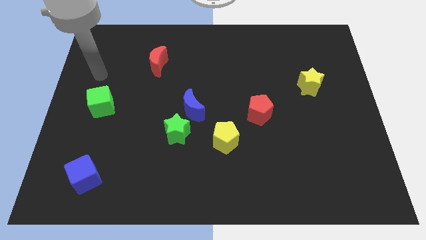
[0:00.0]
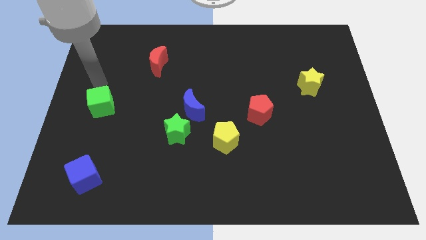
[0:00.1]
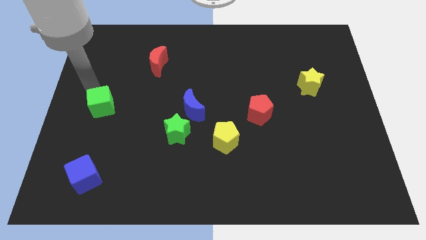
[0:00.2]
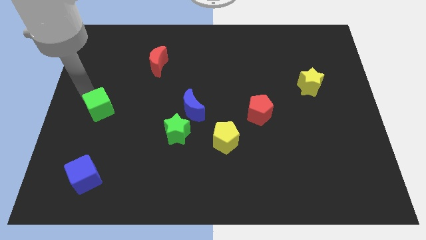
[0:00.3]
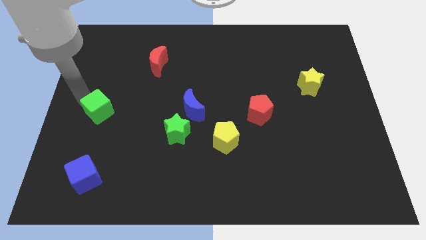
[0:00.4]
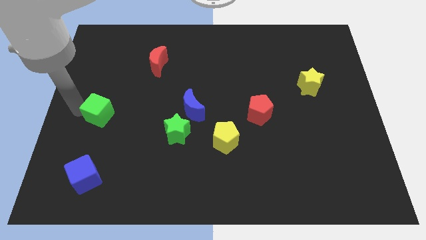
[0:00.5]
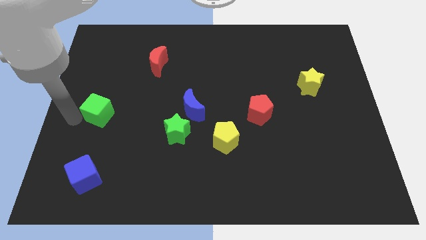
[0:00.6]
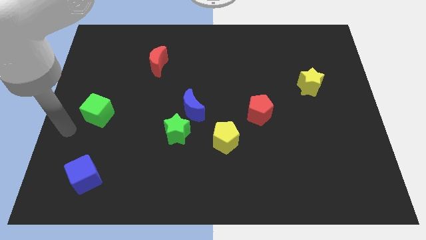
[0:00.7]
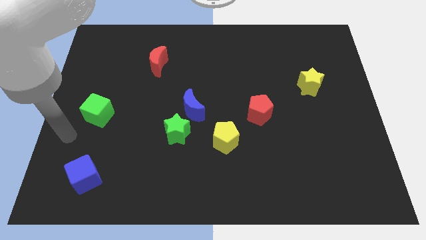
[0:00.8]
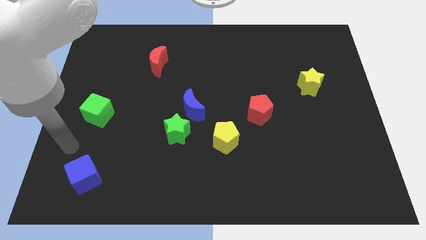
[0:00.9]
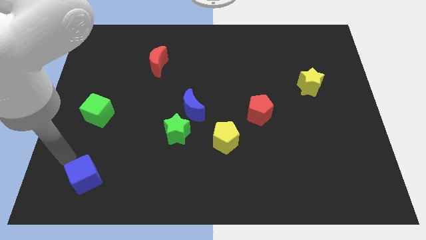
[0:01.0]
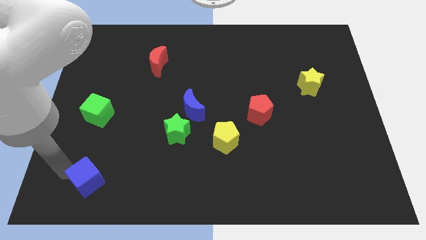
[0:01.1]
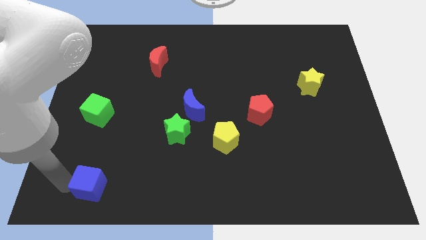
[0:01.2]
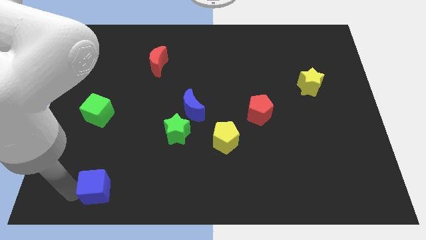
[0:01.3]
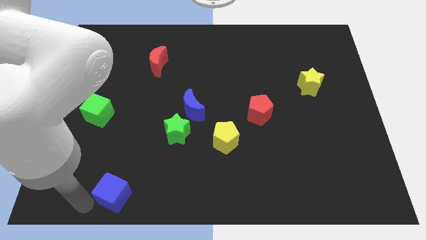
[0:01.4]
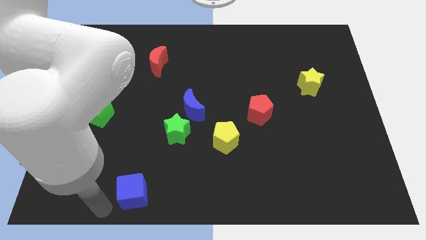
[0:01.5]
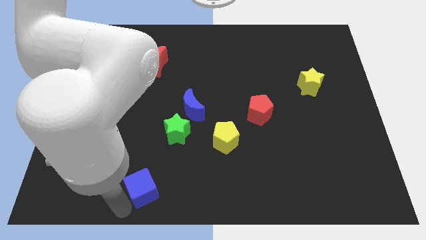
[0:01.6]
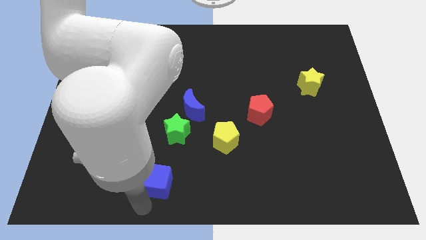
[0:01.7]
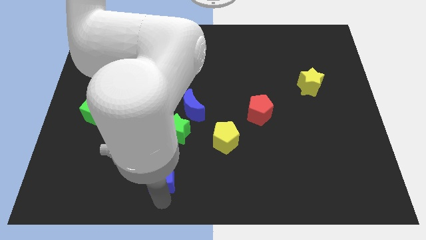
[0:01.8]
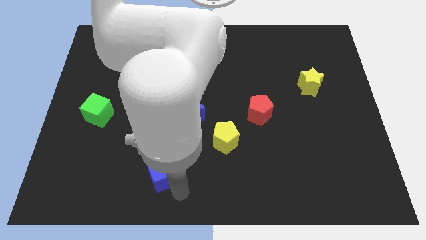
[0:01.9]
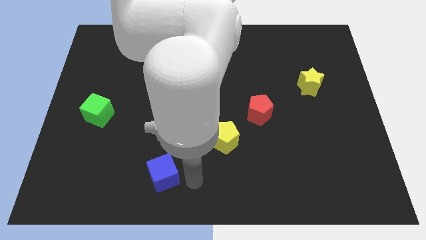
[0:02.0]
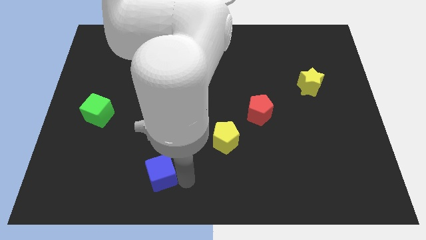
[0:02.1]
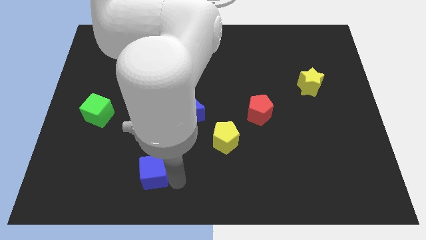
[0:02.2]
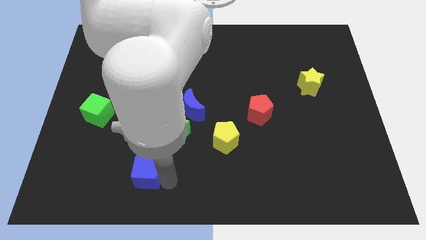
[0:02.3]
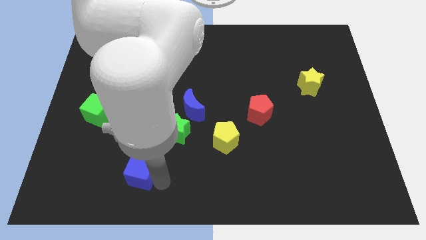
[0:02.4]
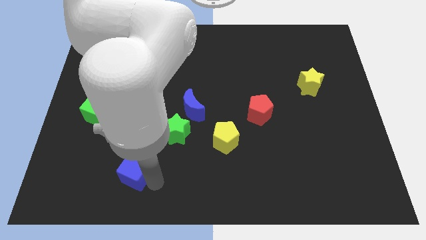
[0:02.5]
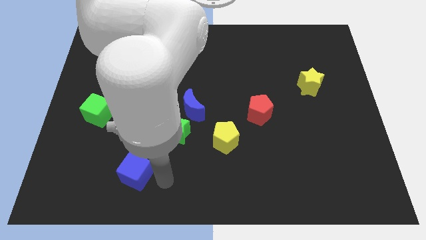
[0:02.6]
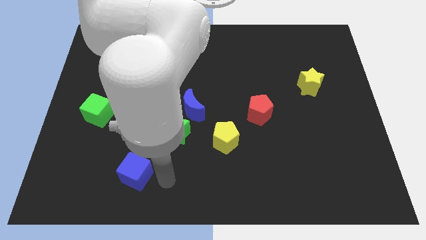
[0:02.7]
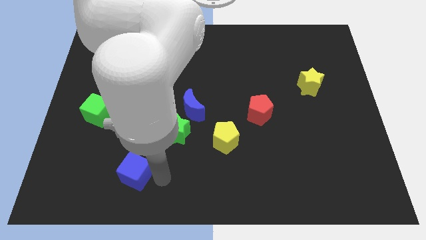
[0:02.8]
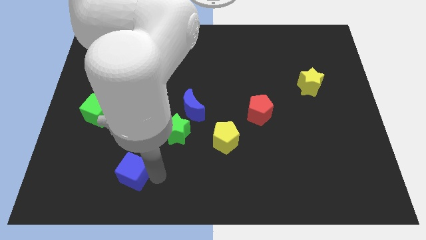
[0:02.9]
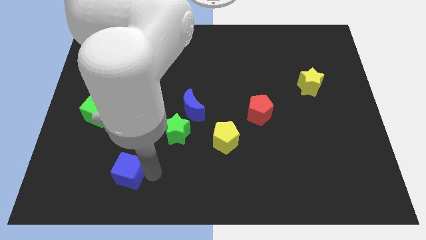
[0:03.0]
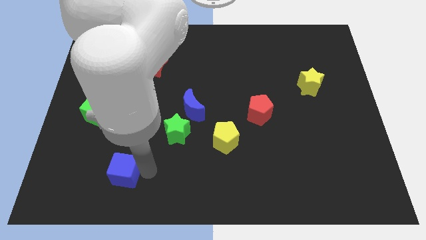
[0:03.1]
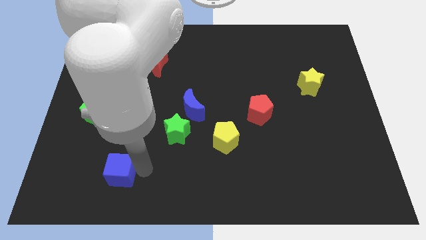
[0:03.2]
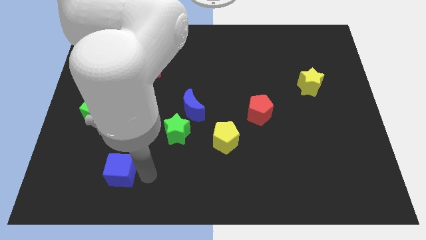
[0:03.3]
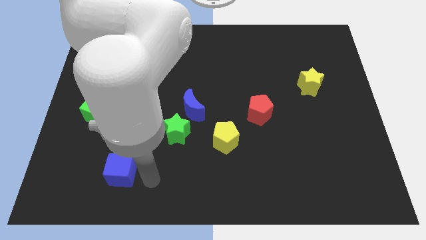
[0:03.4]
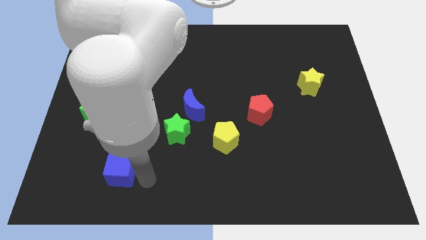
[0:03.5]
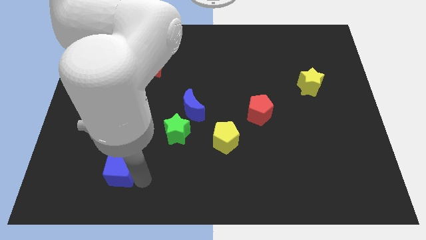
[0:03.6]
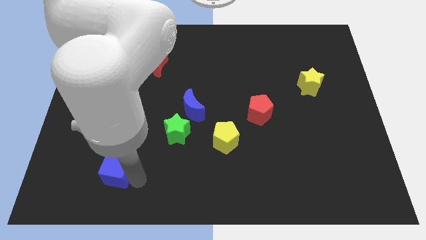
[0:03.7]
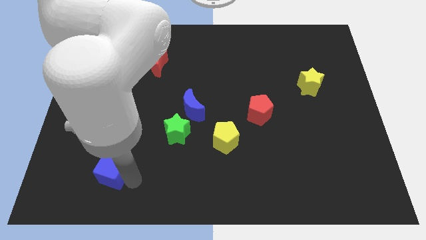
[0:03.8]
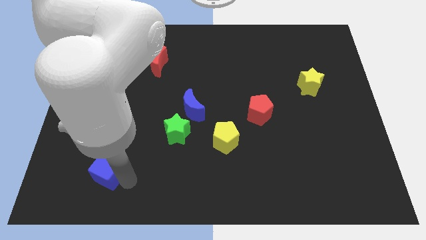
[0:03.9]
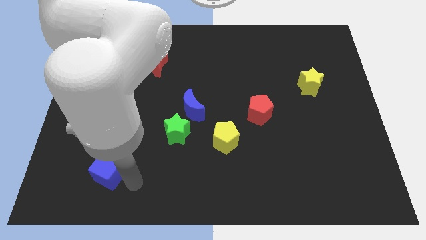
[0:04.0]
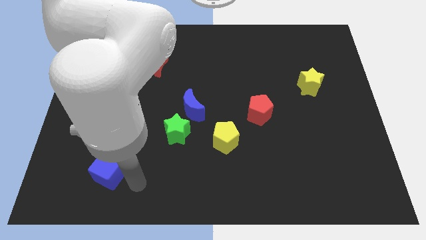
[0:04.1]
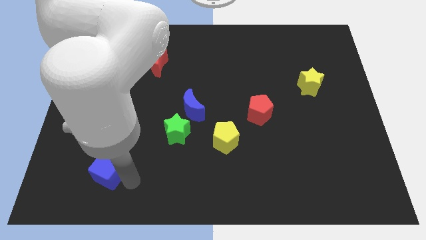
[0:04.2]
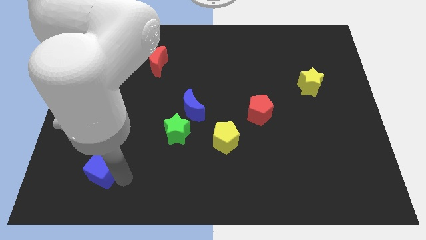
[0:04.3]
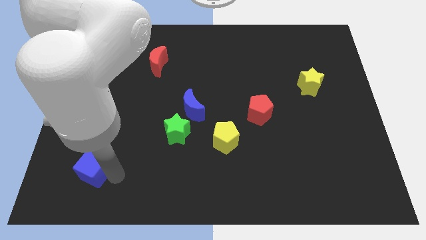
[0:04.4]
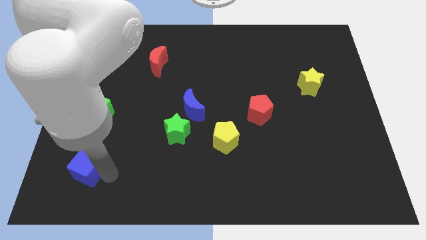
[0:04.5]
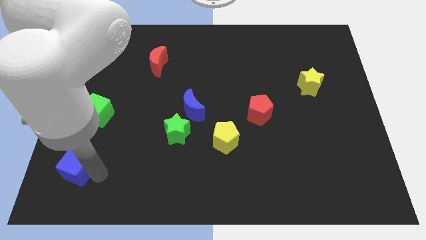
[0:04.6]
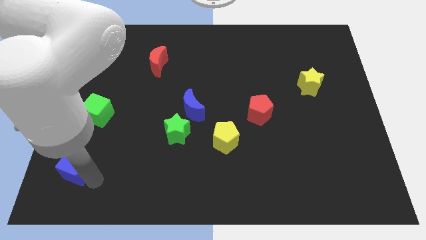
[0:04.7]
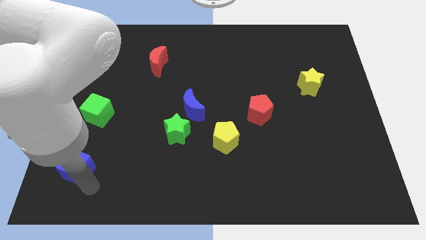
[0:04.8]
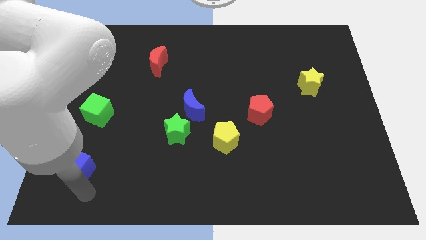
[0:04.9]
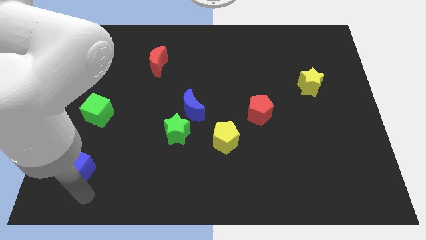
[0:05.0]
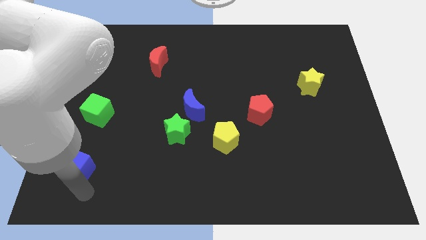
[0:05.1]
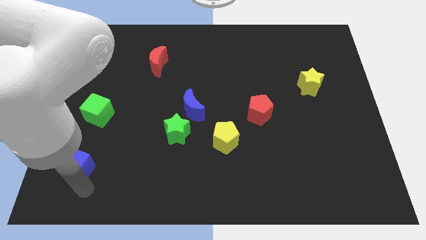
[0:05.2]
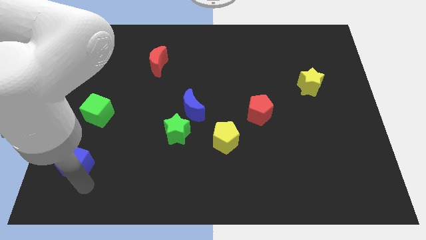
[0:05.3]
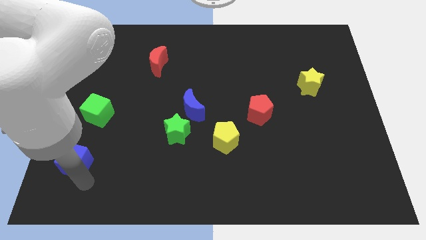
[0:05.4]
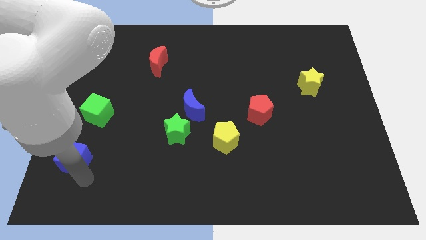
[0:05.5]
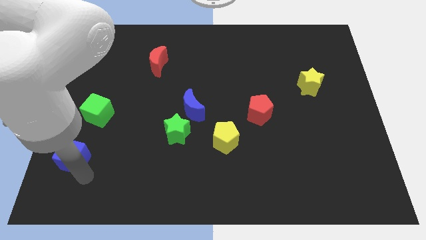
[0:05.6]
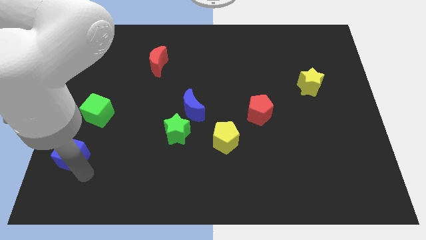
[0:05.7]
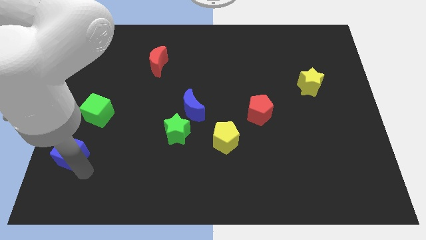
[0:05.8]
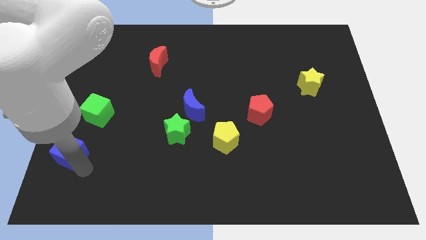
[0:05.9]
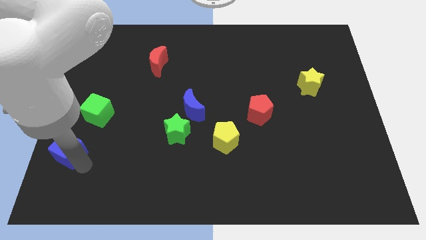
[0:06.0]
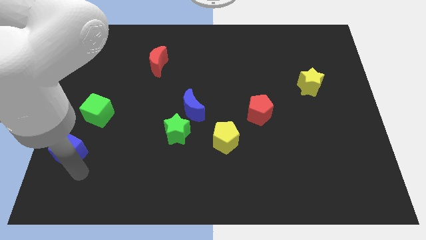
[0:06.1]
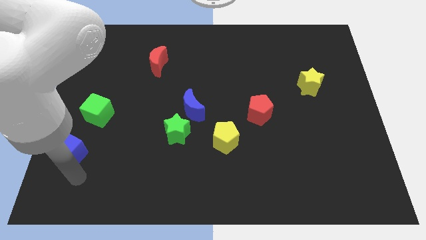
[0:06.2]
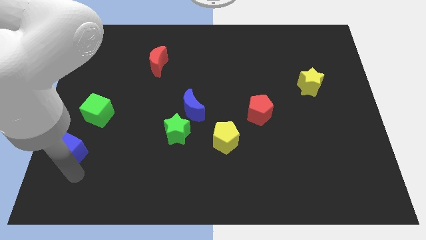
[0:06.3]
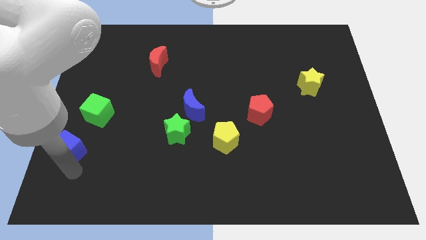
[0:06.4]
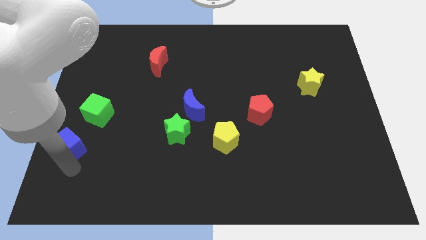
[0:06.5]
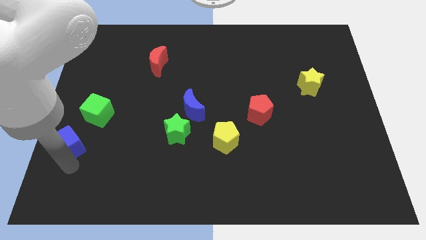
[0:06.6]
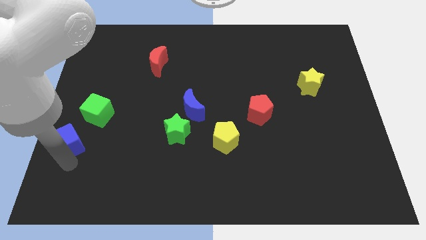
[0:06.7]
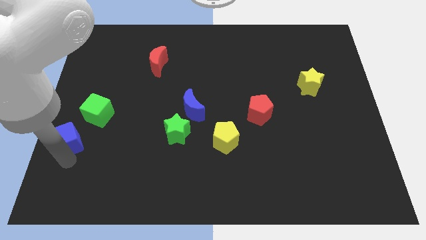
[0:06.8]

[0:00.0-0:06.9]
slide the blue cube to the left side of the board
